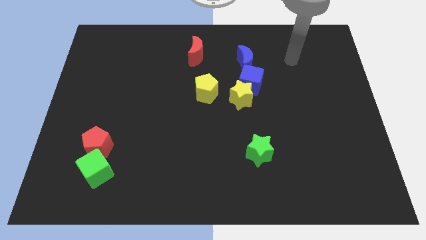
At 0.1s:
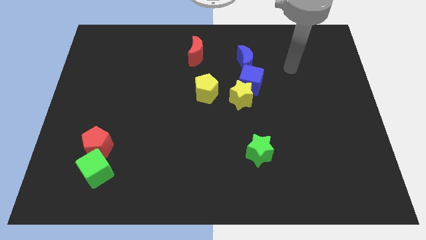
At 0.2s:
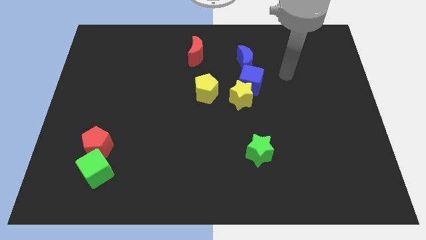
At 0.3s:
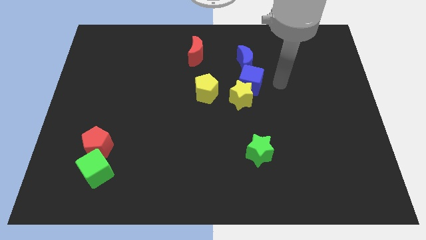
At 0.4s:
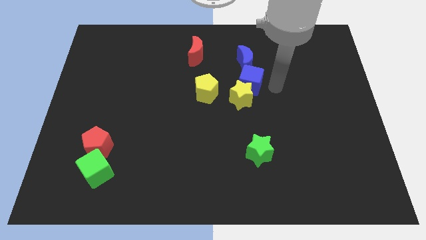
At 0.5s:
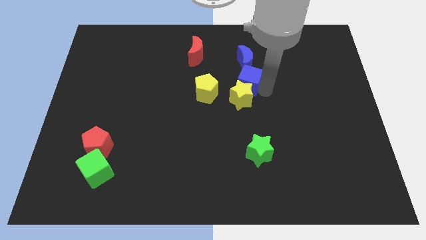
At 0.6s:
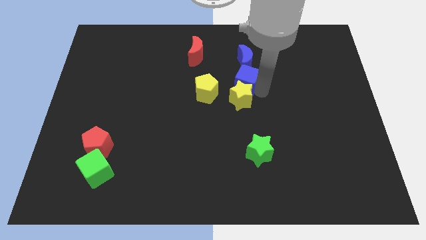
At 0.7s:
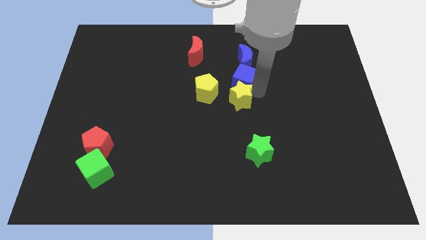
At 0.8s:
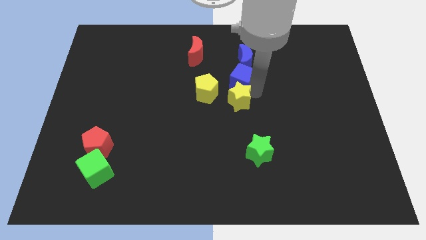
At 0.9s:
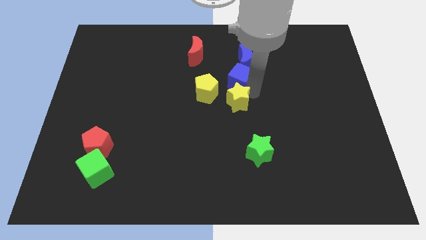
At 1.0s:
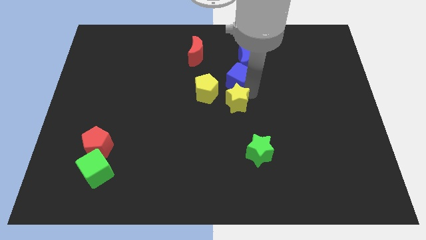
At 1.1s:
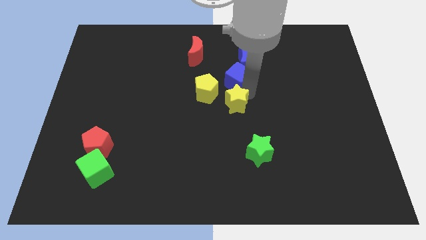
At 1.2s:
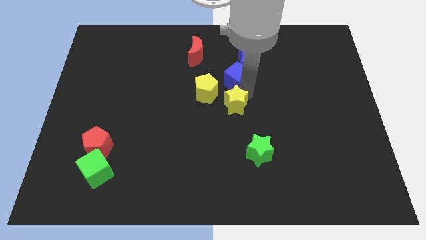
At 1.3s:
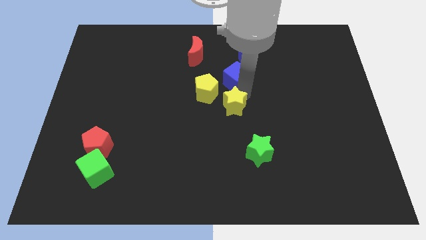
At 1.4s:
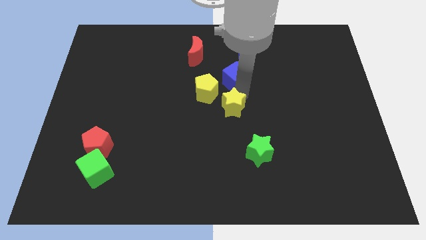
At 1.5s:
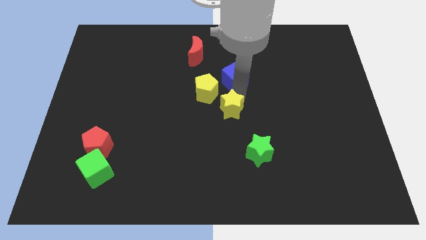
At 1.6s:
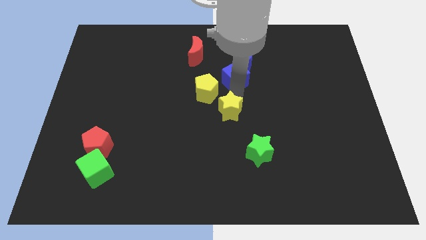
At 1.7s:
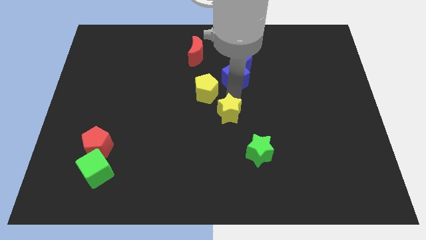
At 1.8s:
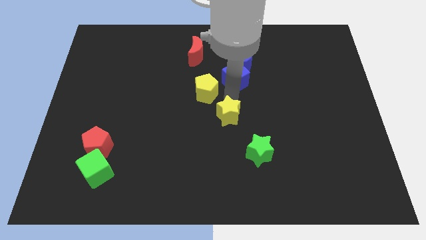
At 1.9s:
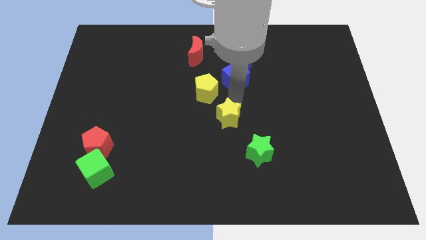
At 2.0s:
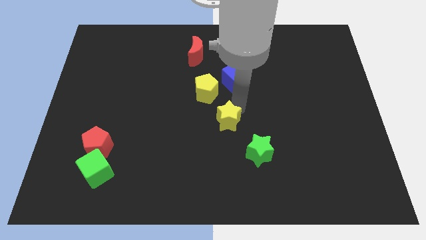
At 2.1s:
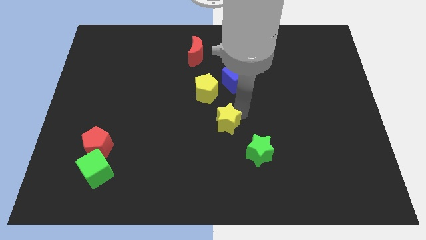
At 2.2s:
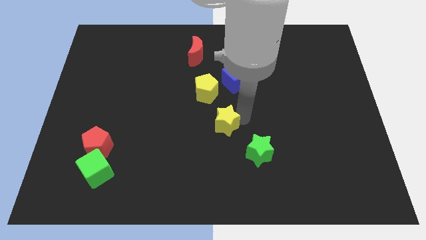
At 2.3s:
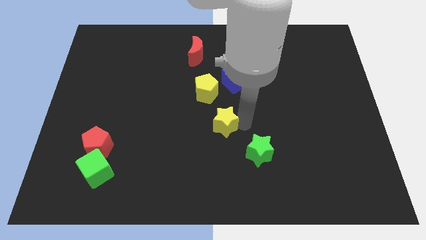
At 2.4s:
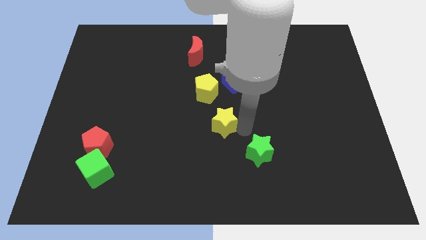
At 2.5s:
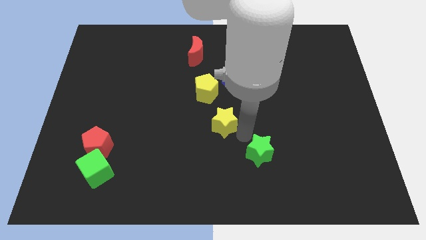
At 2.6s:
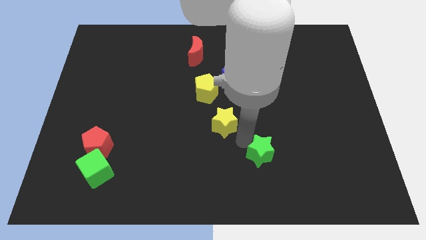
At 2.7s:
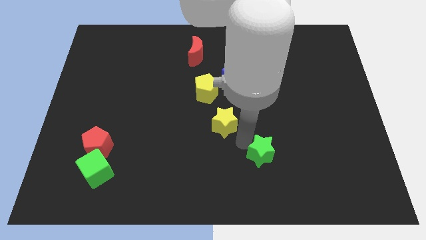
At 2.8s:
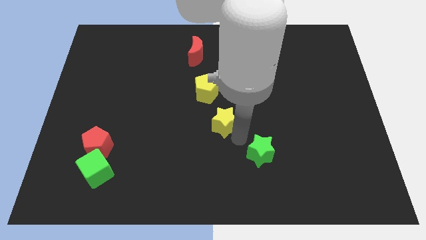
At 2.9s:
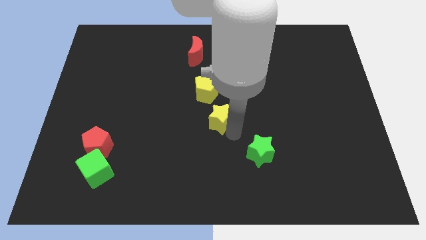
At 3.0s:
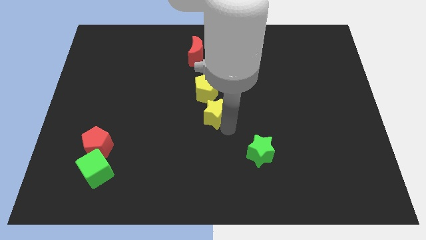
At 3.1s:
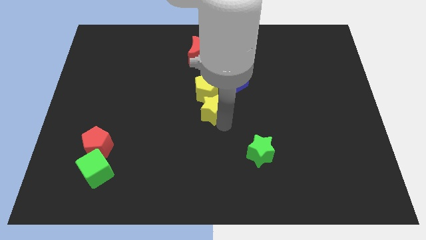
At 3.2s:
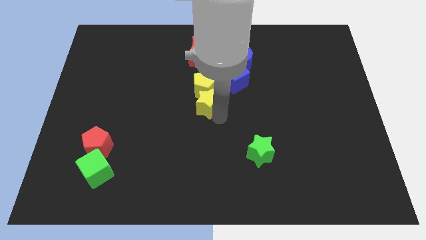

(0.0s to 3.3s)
slide the yellow star left somewhat

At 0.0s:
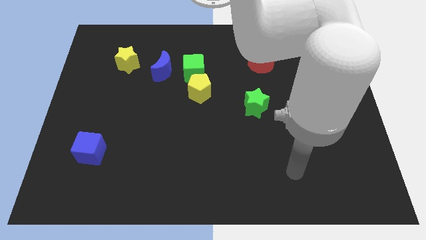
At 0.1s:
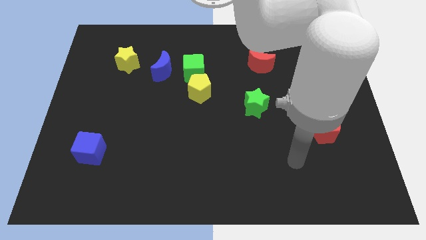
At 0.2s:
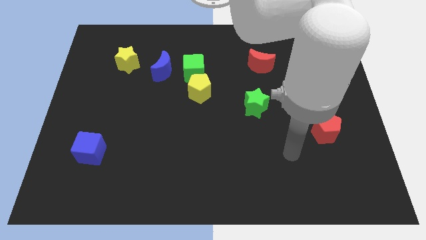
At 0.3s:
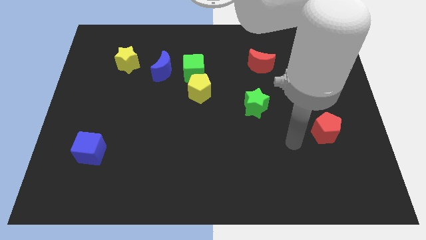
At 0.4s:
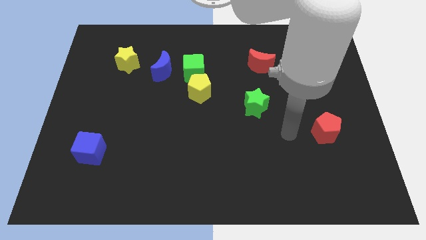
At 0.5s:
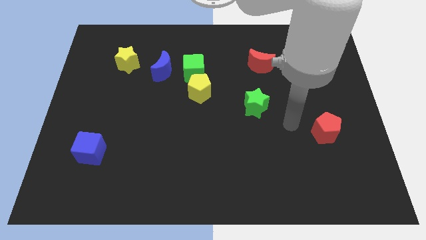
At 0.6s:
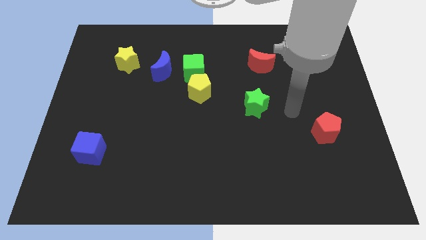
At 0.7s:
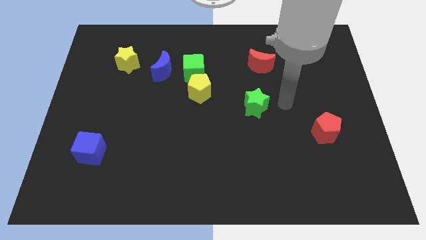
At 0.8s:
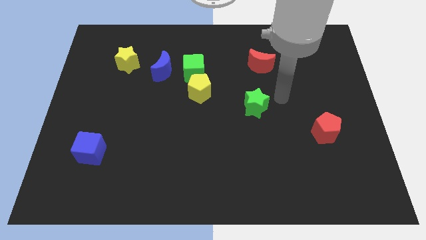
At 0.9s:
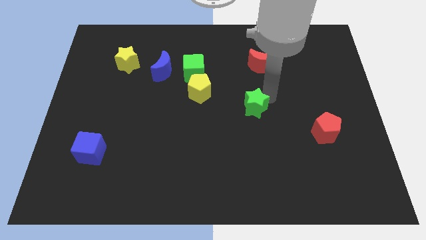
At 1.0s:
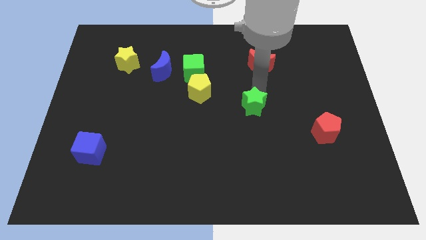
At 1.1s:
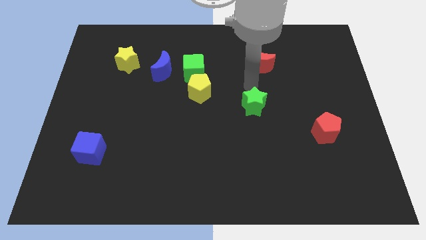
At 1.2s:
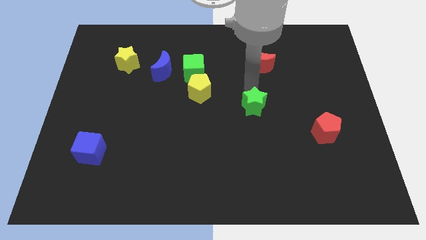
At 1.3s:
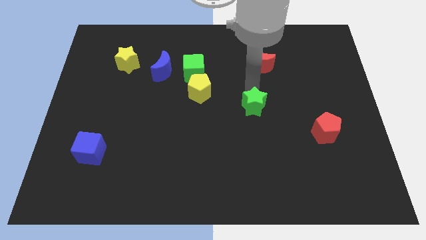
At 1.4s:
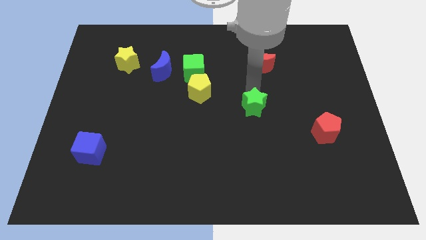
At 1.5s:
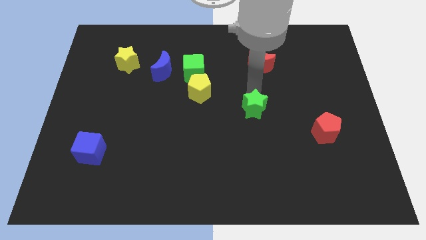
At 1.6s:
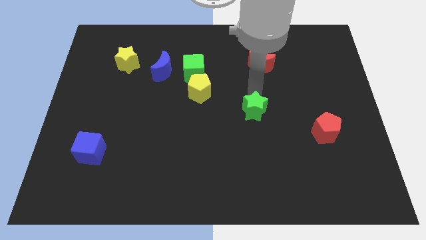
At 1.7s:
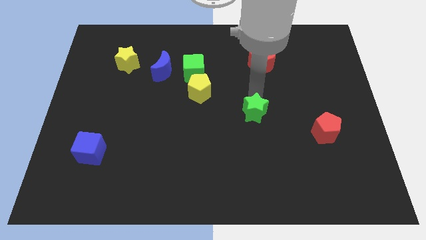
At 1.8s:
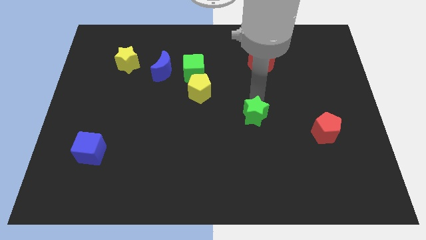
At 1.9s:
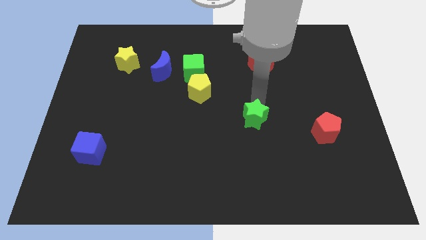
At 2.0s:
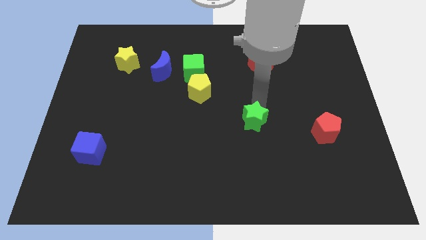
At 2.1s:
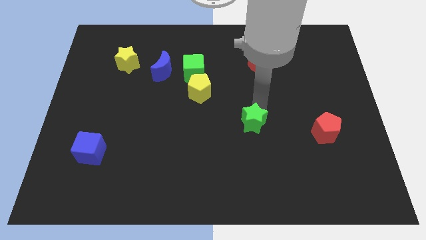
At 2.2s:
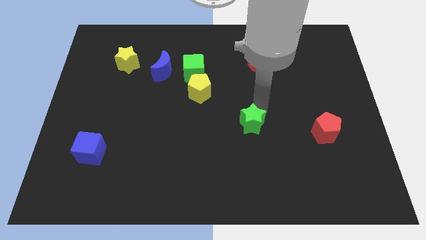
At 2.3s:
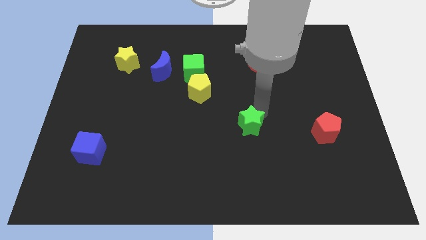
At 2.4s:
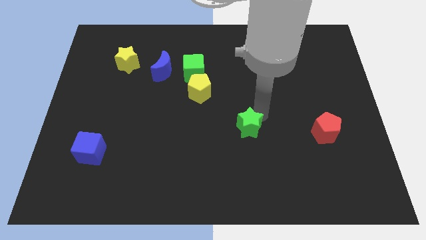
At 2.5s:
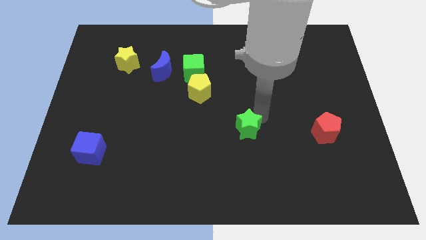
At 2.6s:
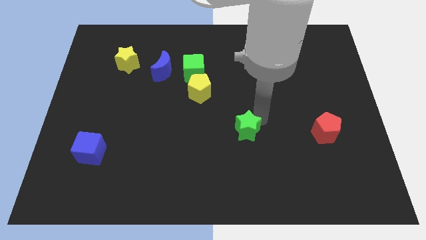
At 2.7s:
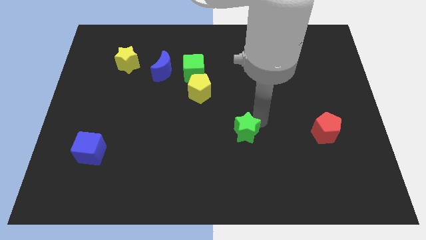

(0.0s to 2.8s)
slide the green star down a little

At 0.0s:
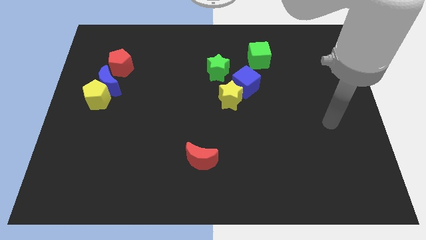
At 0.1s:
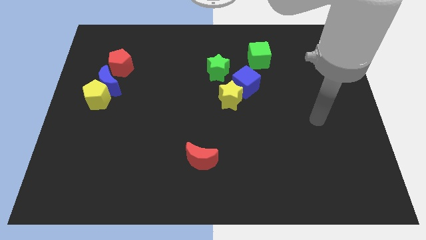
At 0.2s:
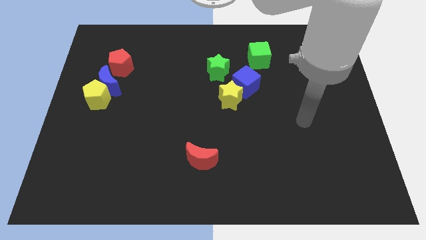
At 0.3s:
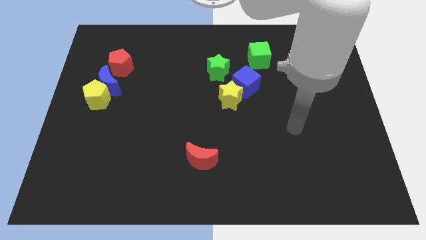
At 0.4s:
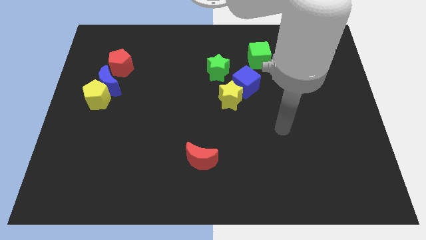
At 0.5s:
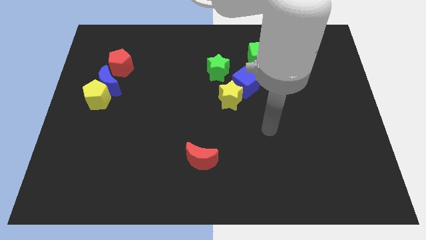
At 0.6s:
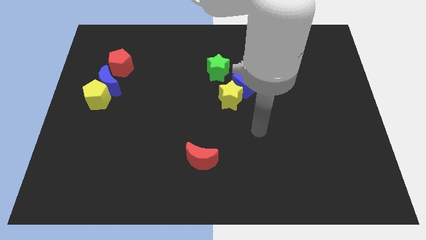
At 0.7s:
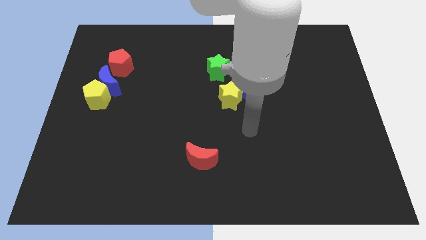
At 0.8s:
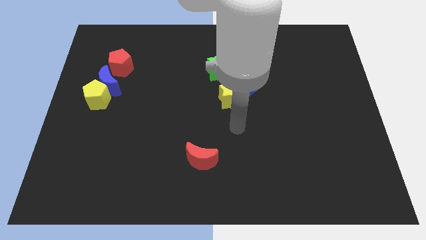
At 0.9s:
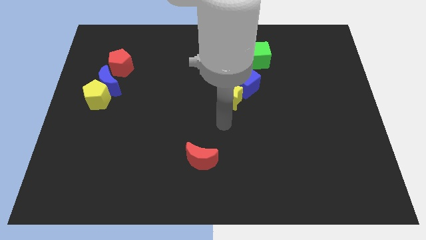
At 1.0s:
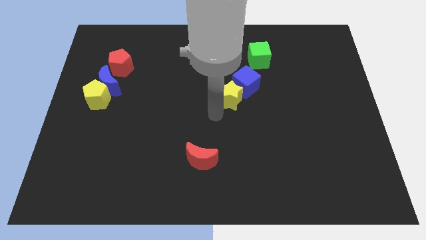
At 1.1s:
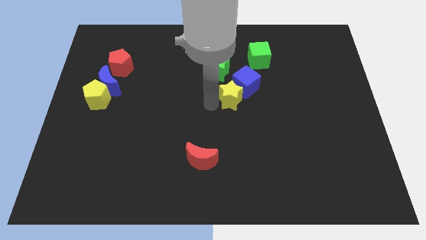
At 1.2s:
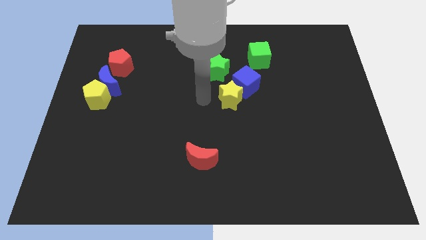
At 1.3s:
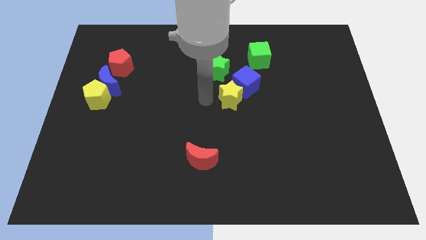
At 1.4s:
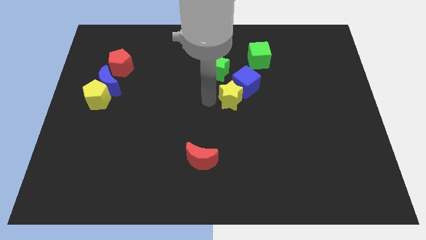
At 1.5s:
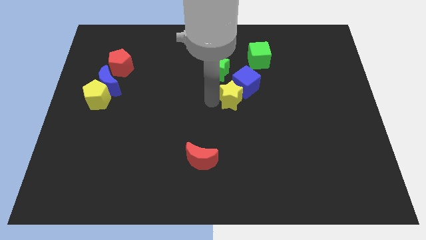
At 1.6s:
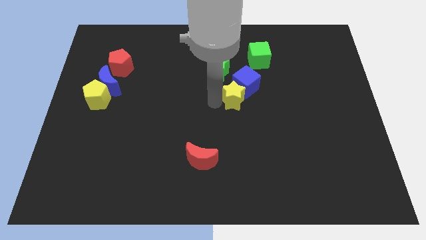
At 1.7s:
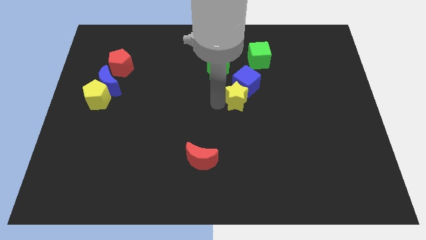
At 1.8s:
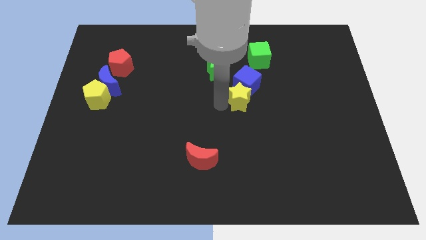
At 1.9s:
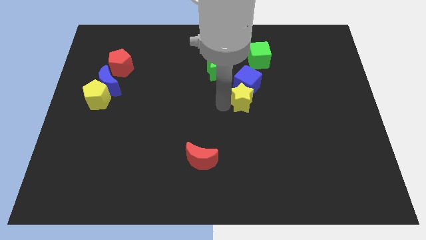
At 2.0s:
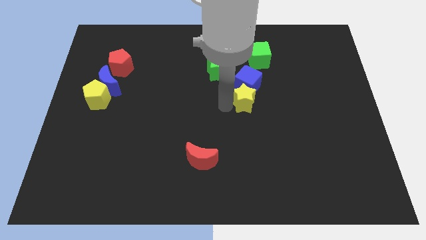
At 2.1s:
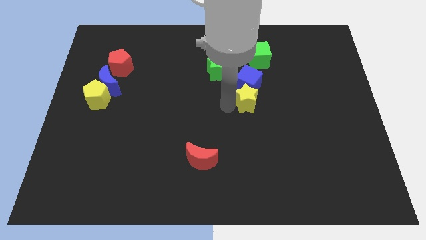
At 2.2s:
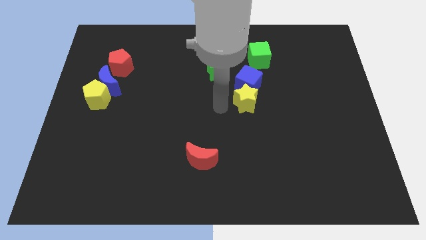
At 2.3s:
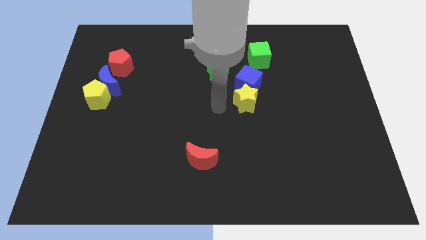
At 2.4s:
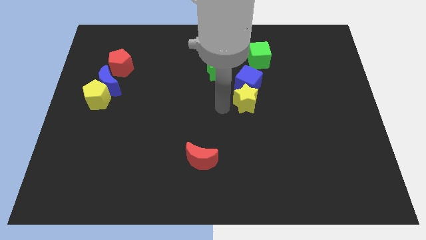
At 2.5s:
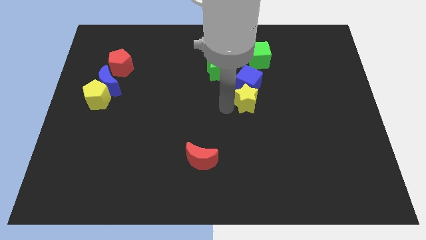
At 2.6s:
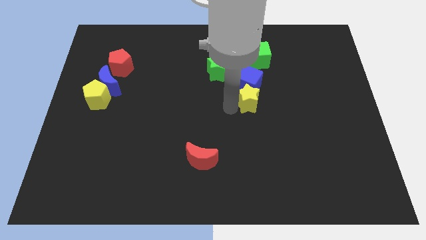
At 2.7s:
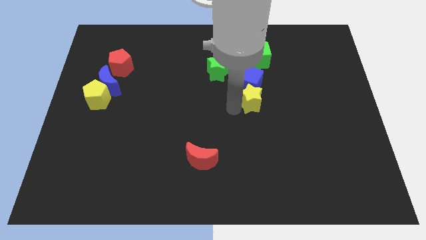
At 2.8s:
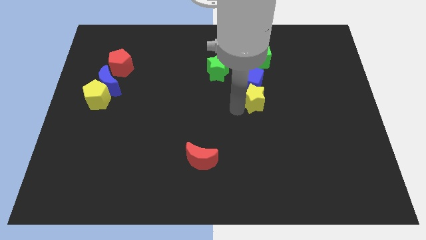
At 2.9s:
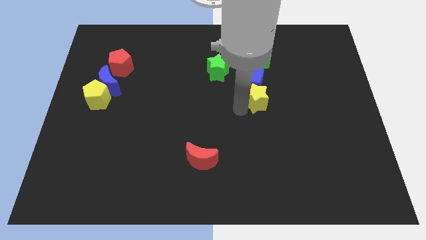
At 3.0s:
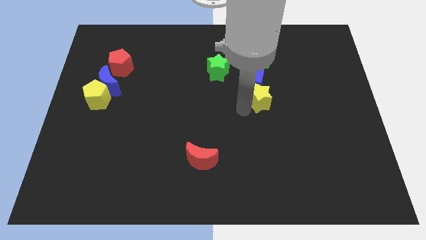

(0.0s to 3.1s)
slide the yellow star to the right a little bit
